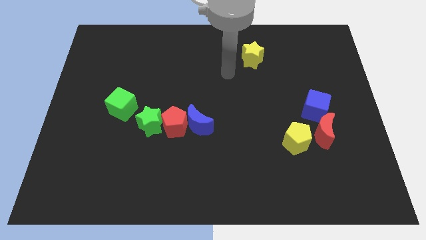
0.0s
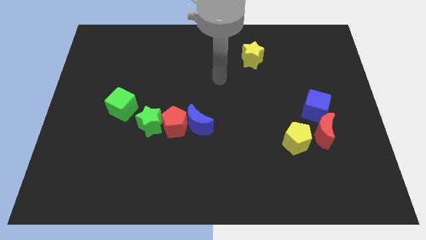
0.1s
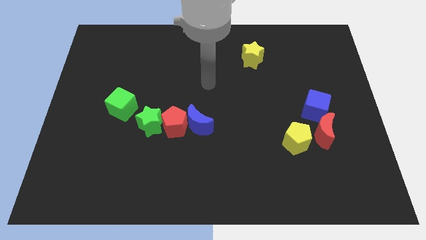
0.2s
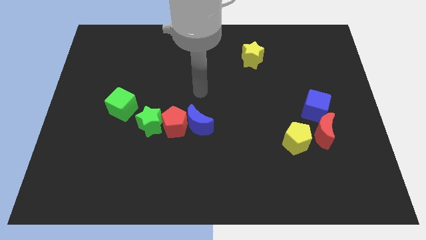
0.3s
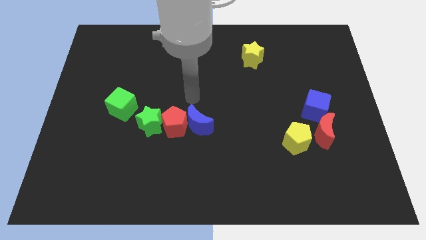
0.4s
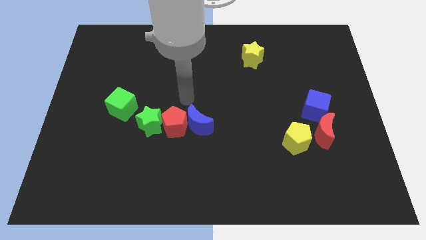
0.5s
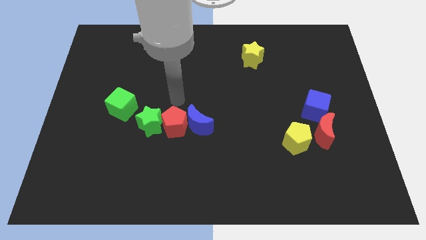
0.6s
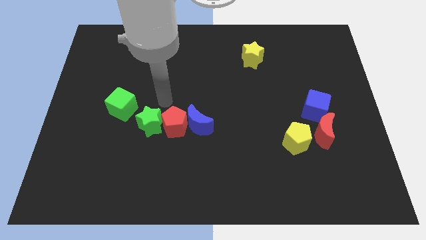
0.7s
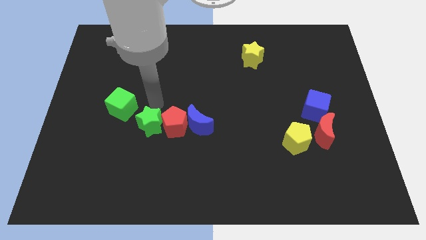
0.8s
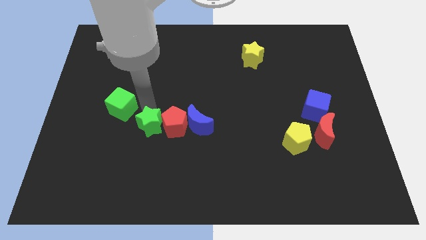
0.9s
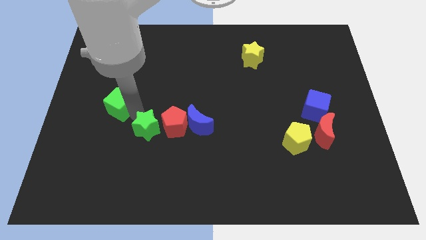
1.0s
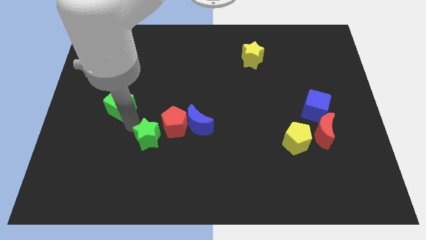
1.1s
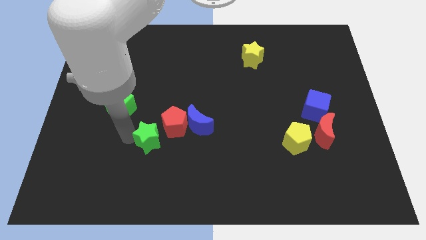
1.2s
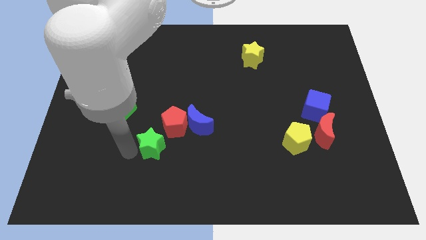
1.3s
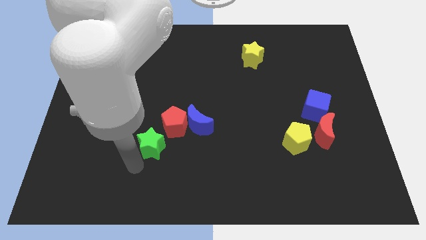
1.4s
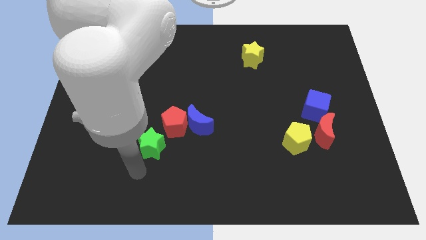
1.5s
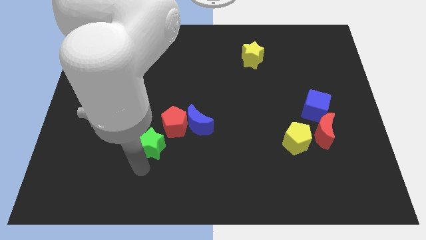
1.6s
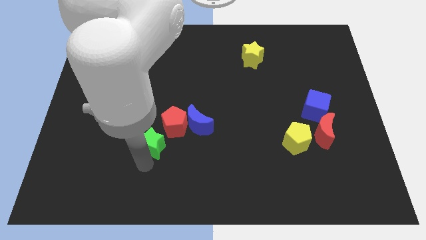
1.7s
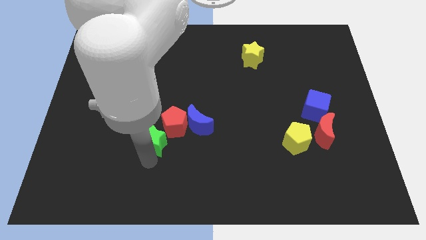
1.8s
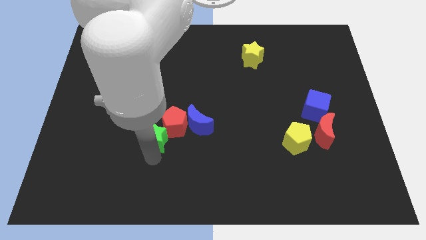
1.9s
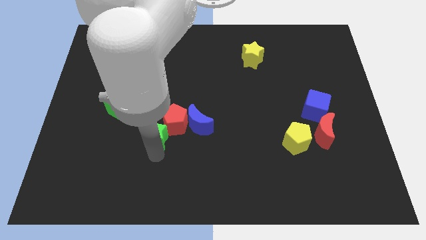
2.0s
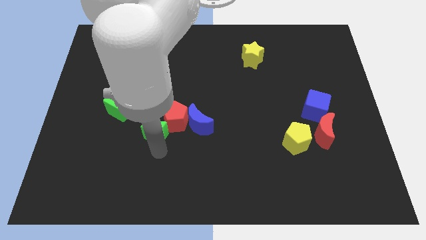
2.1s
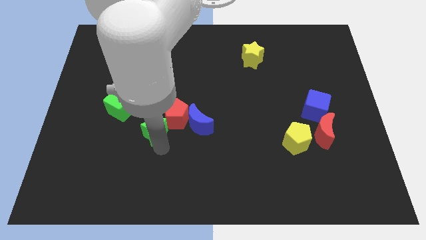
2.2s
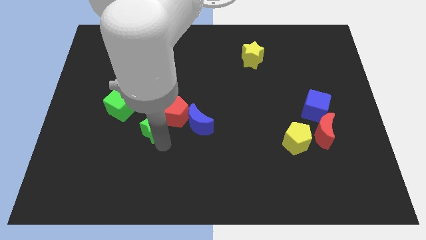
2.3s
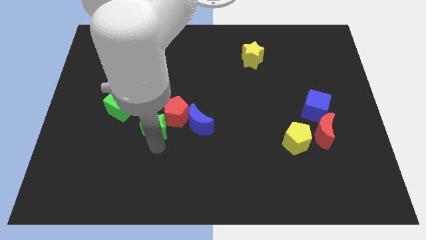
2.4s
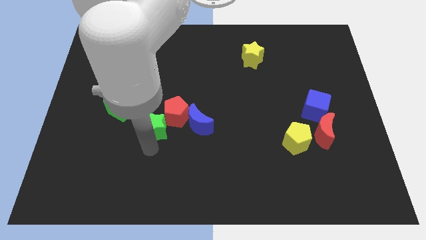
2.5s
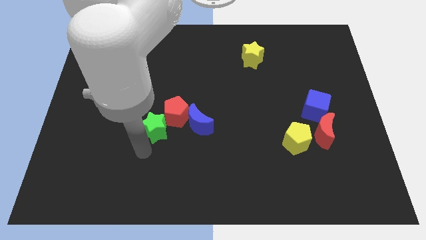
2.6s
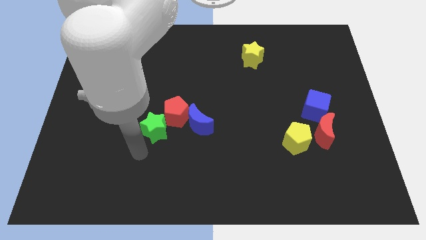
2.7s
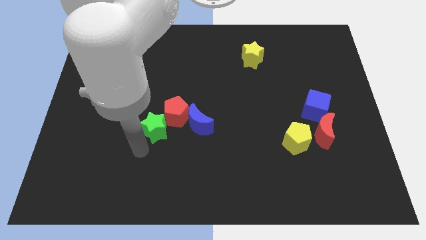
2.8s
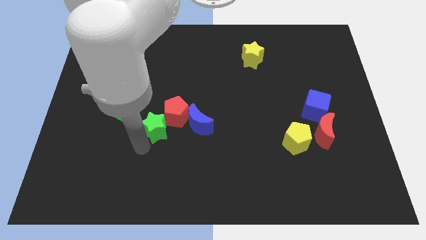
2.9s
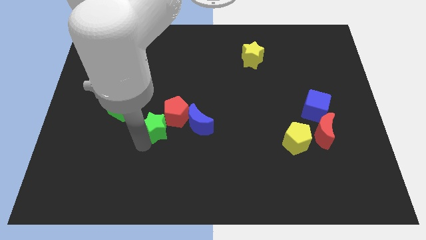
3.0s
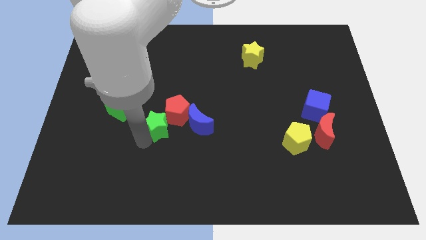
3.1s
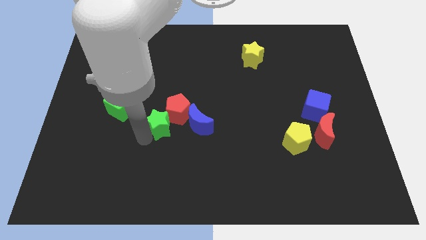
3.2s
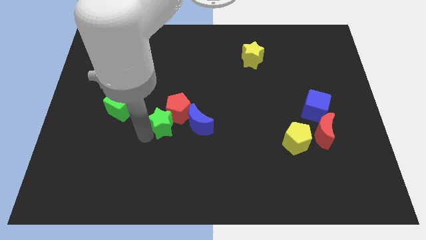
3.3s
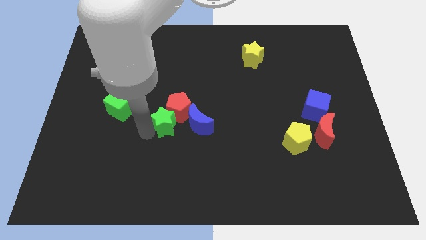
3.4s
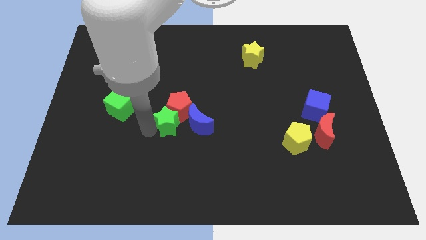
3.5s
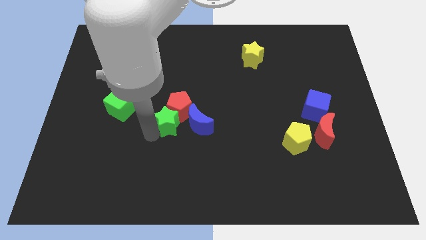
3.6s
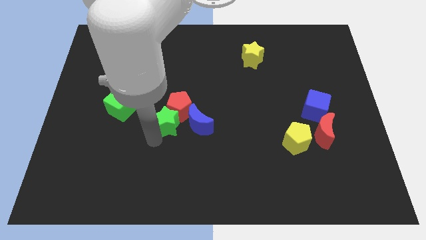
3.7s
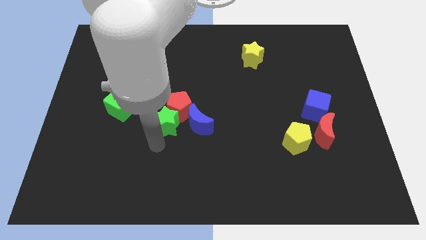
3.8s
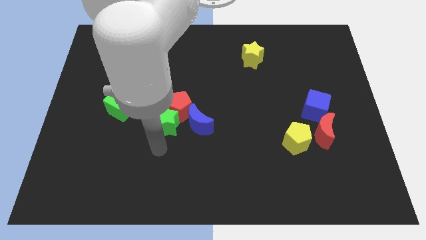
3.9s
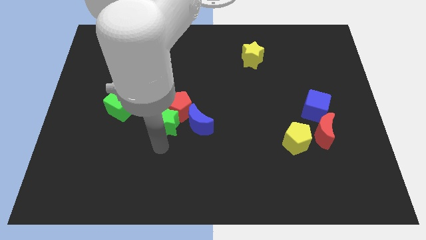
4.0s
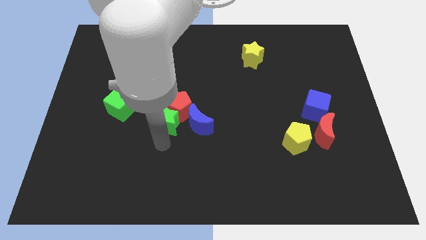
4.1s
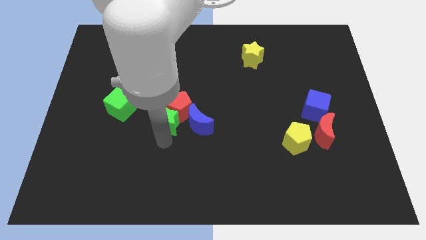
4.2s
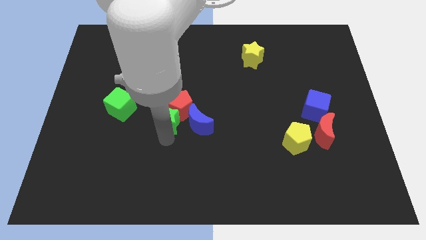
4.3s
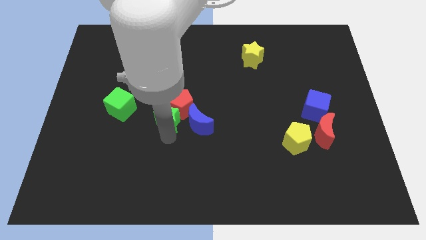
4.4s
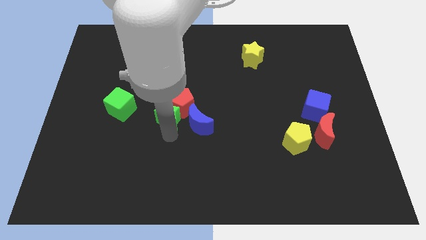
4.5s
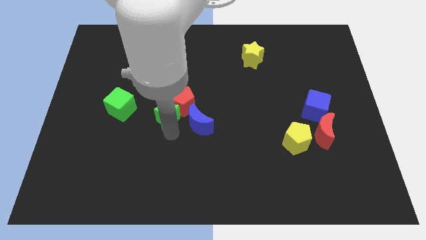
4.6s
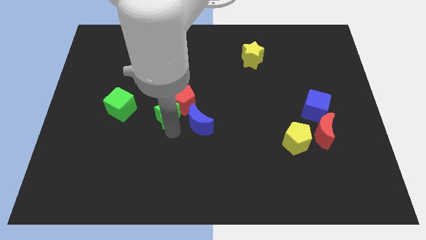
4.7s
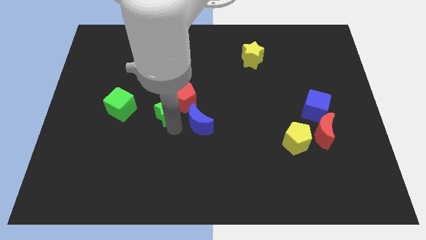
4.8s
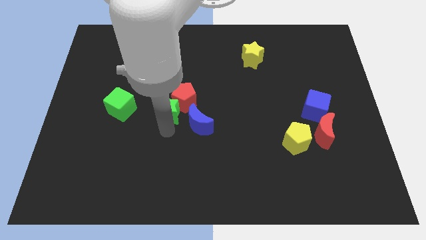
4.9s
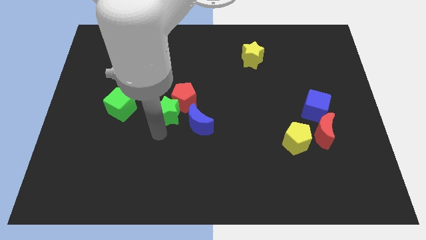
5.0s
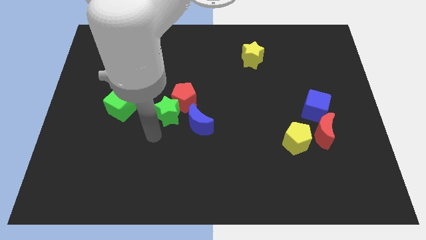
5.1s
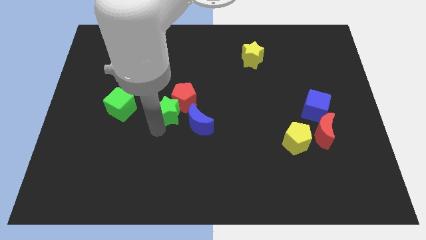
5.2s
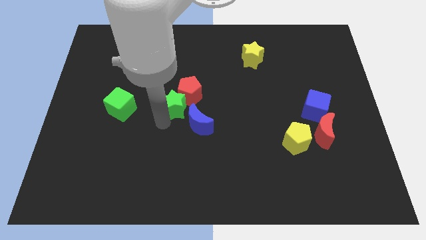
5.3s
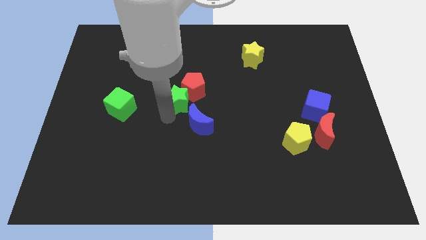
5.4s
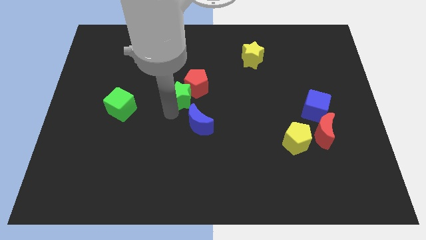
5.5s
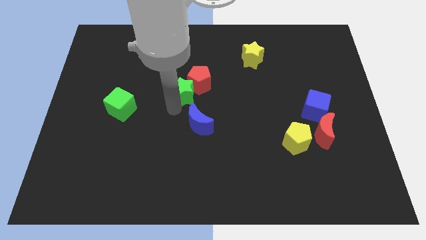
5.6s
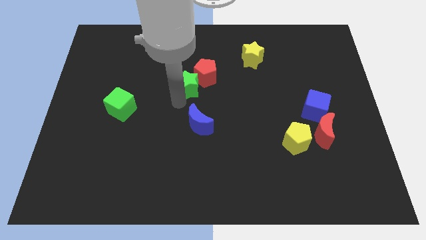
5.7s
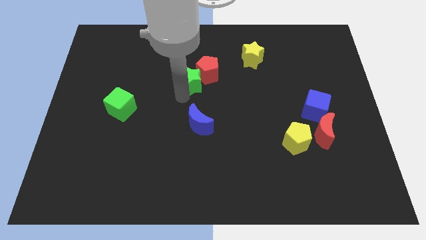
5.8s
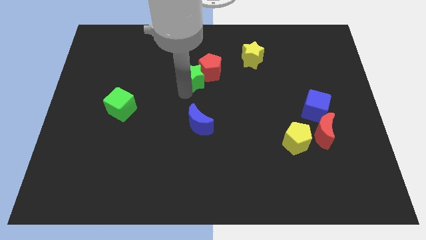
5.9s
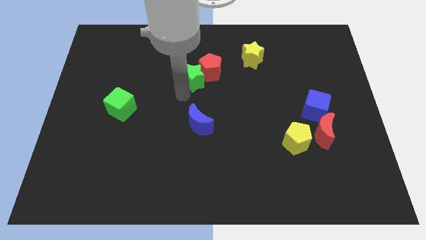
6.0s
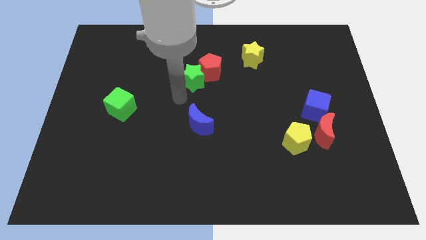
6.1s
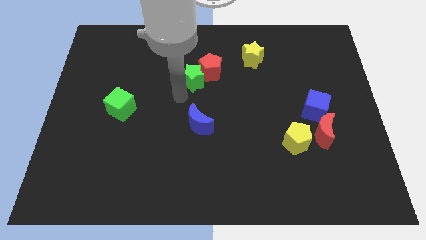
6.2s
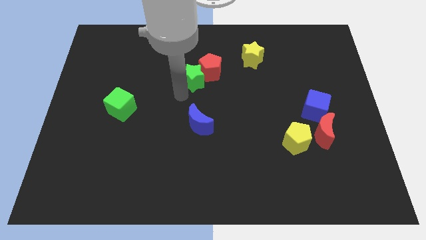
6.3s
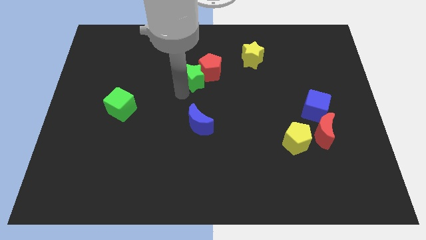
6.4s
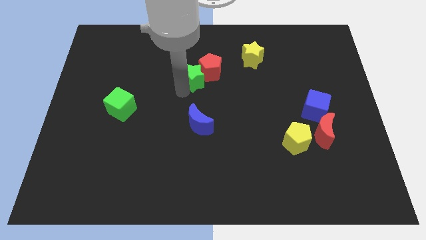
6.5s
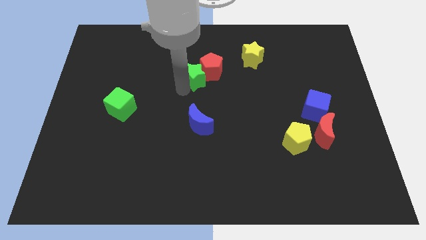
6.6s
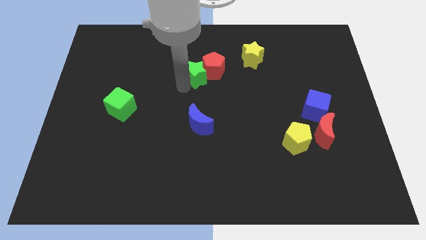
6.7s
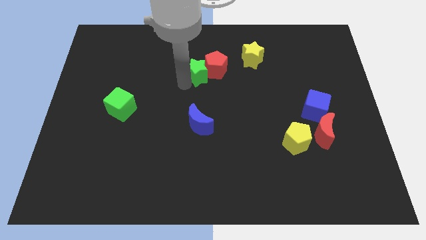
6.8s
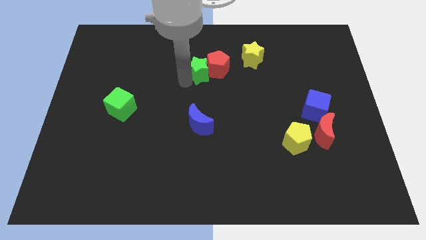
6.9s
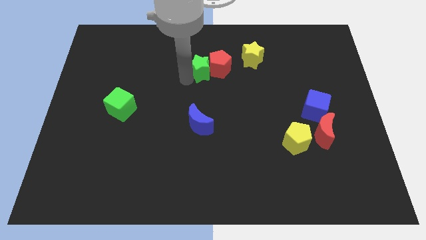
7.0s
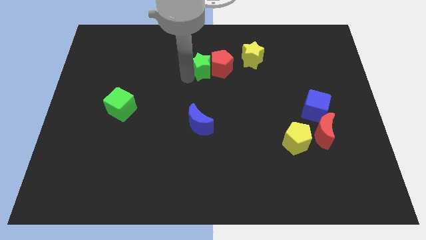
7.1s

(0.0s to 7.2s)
move the green star to the left of the yellow star
